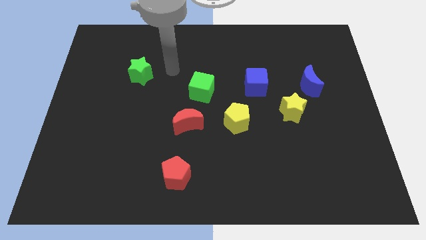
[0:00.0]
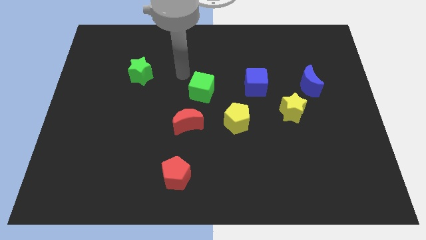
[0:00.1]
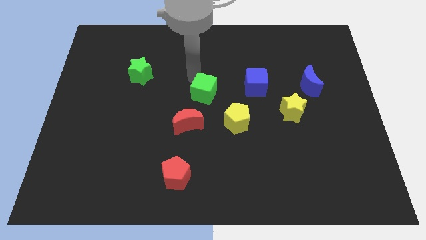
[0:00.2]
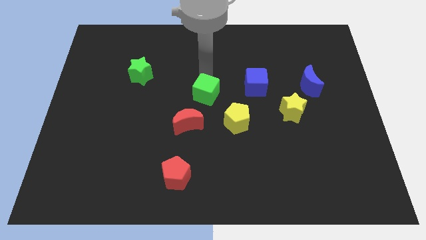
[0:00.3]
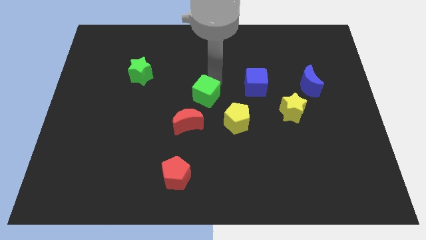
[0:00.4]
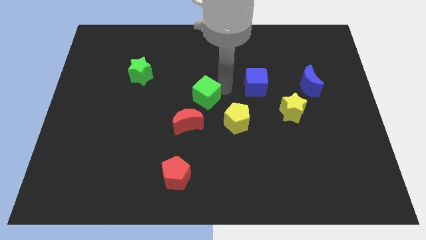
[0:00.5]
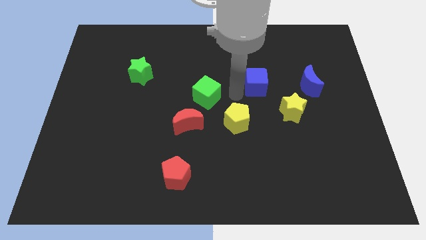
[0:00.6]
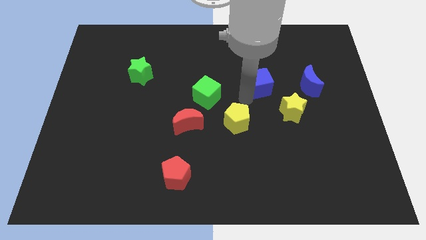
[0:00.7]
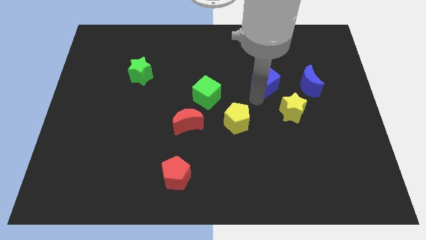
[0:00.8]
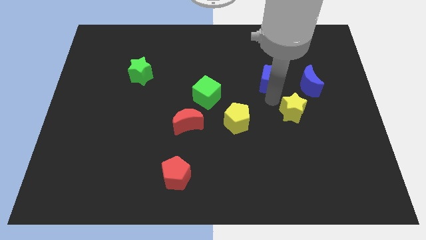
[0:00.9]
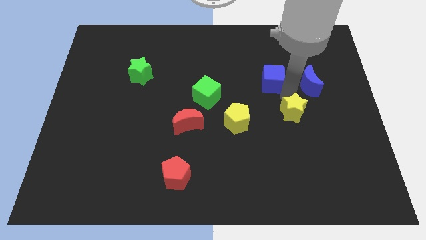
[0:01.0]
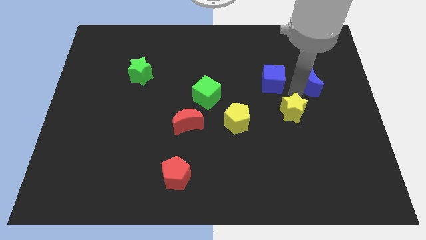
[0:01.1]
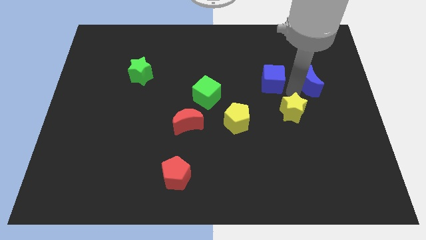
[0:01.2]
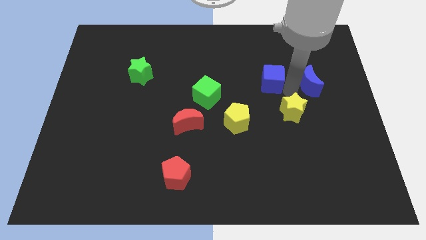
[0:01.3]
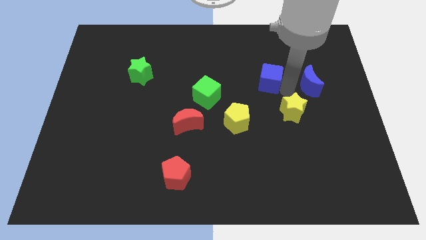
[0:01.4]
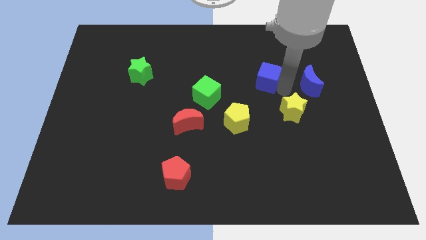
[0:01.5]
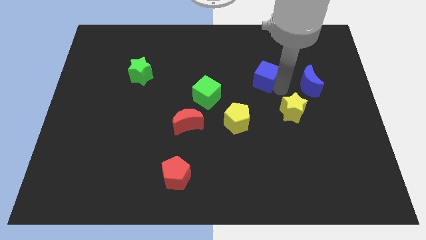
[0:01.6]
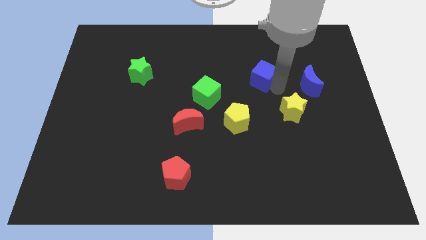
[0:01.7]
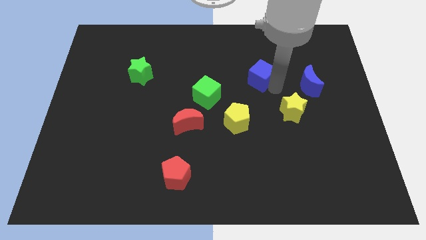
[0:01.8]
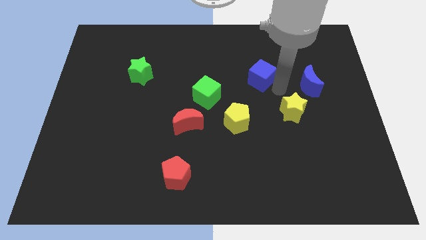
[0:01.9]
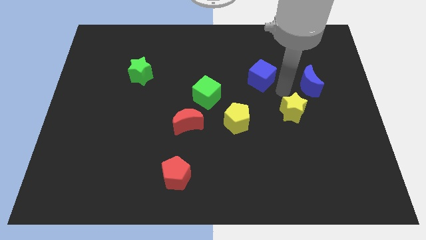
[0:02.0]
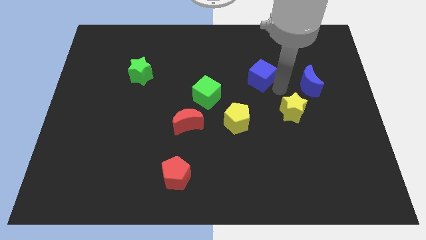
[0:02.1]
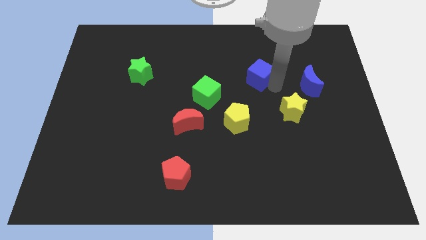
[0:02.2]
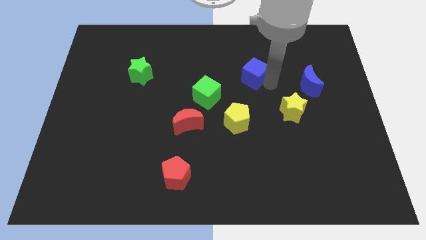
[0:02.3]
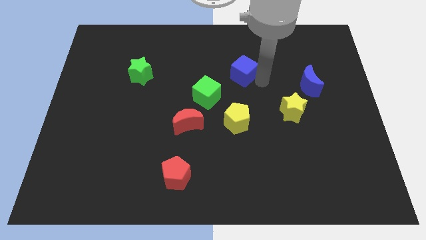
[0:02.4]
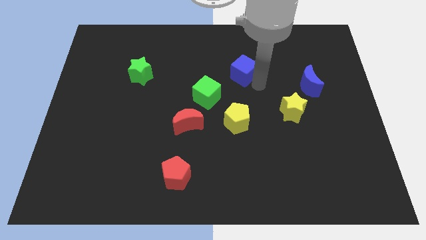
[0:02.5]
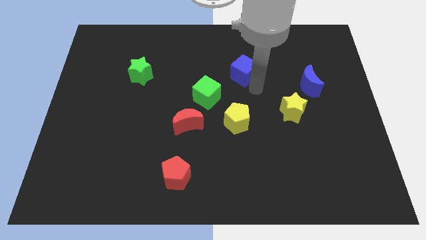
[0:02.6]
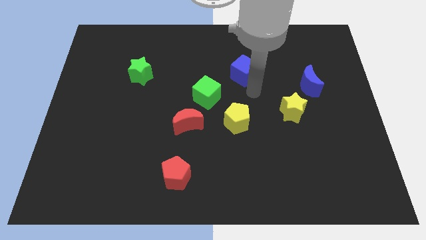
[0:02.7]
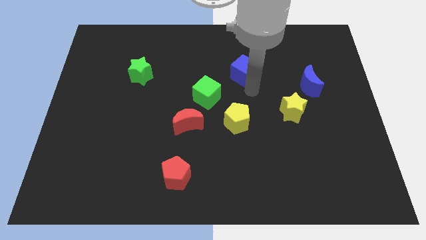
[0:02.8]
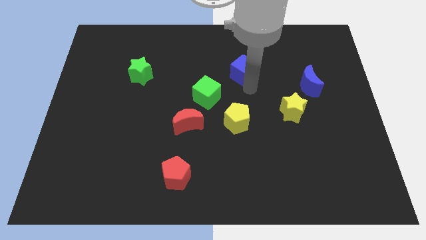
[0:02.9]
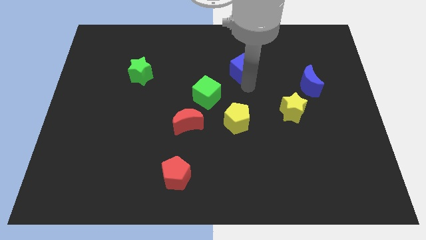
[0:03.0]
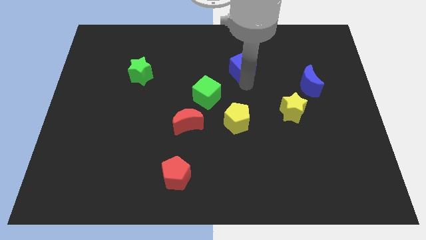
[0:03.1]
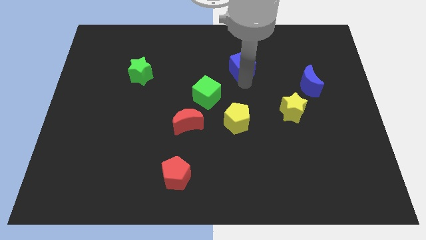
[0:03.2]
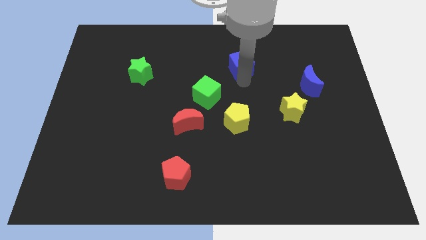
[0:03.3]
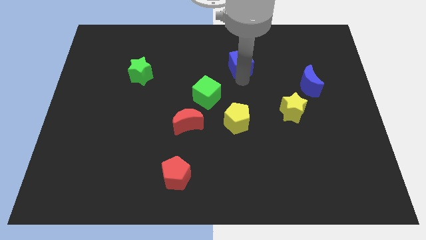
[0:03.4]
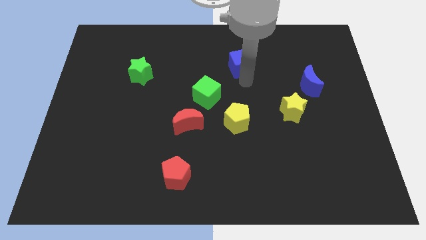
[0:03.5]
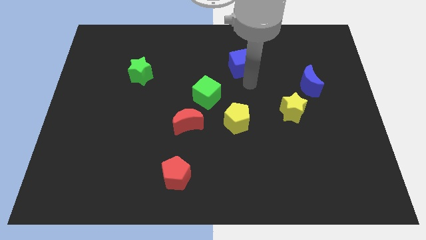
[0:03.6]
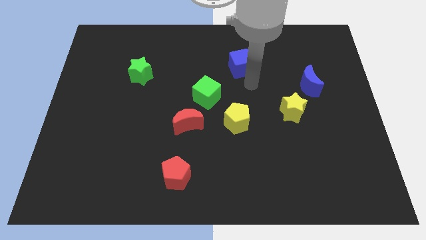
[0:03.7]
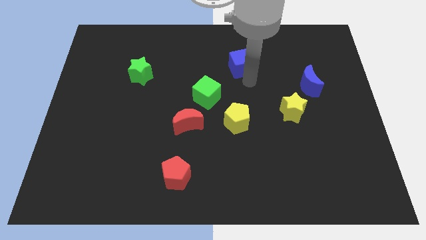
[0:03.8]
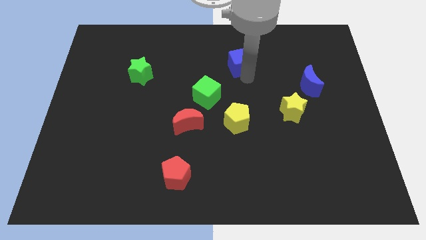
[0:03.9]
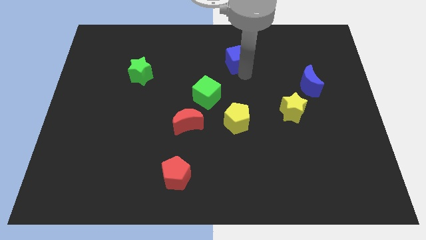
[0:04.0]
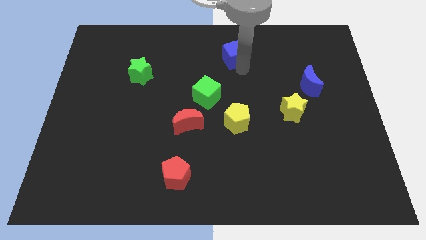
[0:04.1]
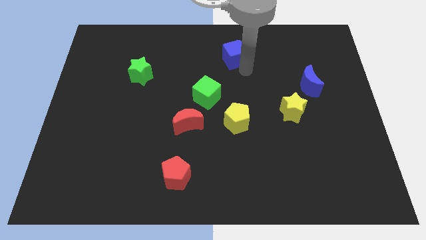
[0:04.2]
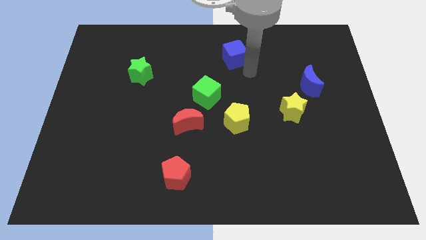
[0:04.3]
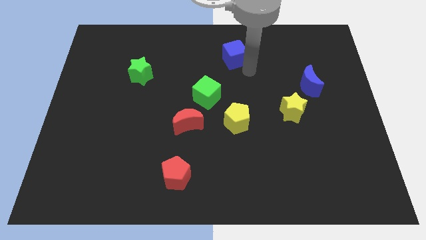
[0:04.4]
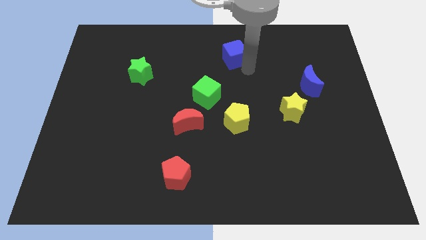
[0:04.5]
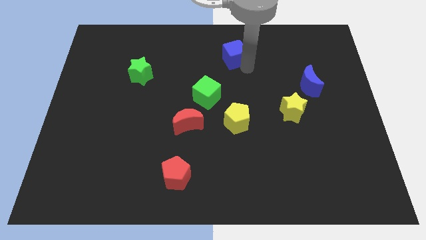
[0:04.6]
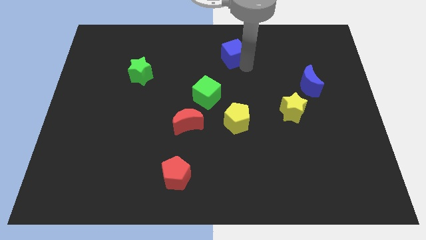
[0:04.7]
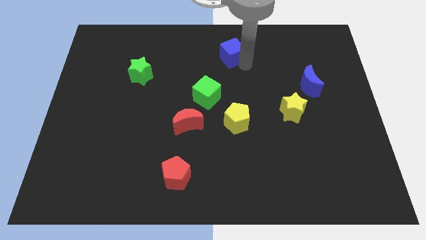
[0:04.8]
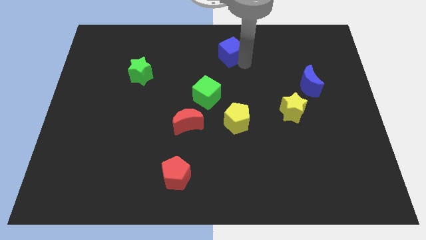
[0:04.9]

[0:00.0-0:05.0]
put the blue cube to the top

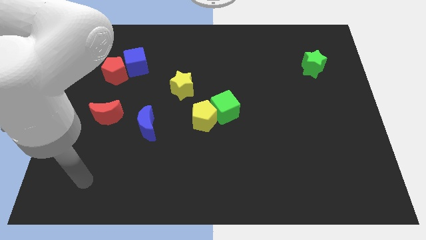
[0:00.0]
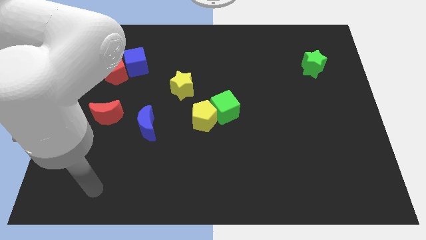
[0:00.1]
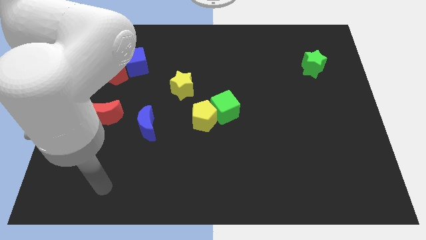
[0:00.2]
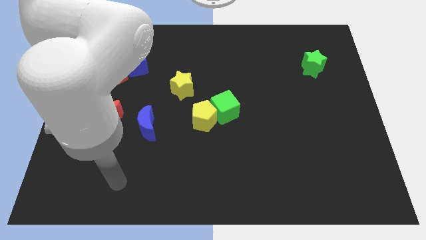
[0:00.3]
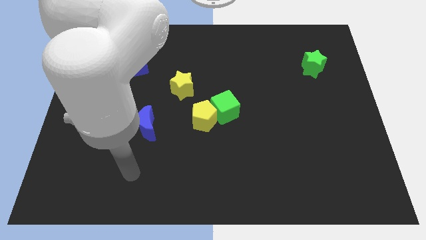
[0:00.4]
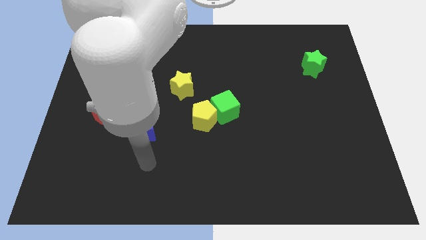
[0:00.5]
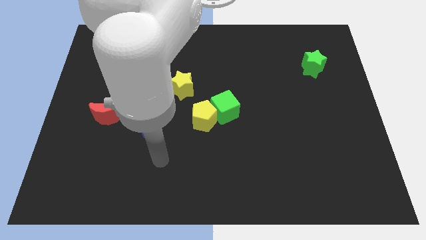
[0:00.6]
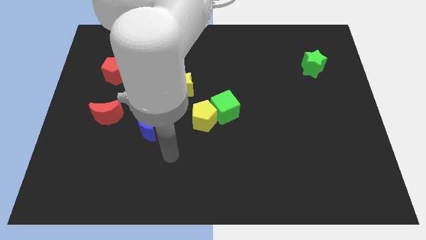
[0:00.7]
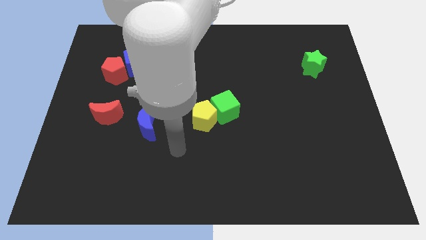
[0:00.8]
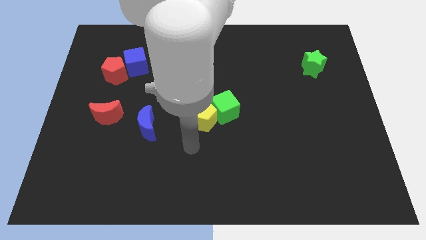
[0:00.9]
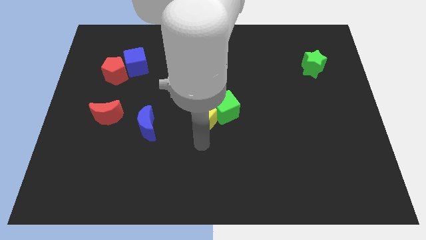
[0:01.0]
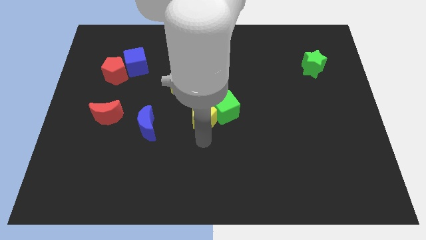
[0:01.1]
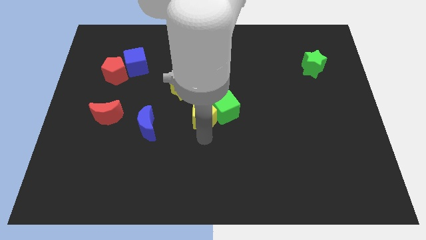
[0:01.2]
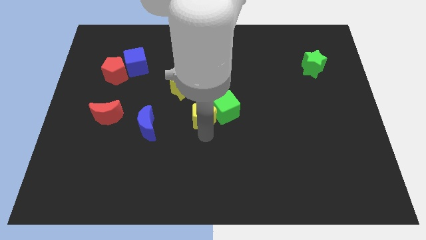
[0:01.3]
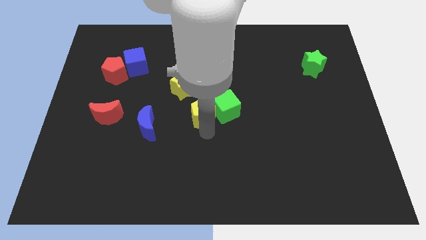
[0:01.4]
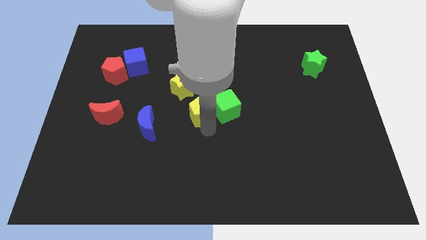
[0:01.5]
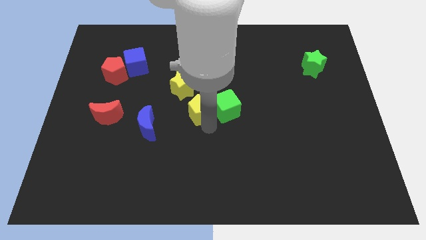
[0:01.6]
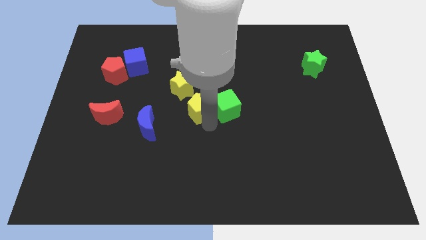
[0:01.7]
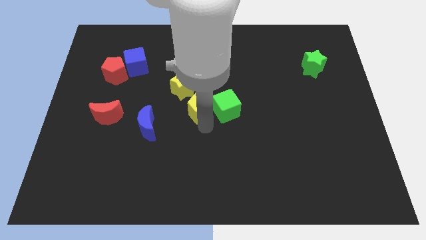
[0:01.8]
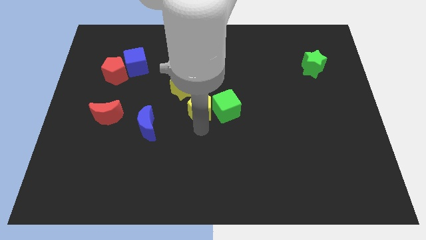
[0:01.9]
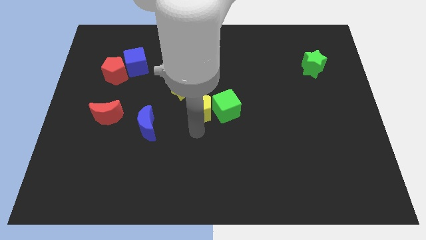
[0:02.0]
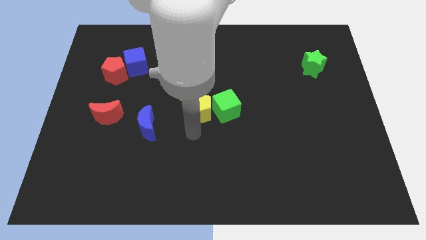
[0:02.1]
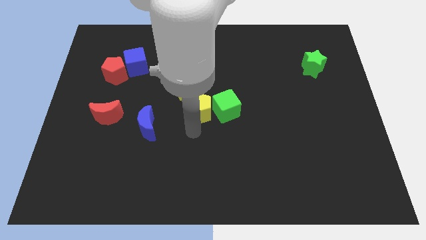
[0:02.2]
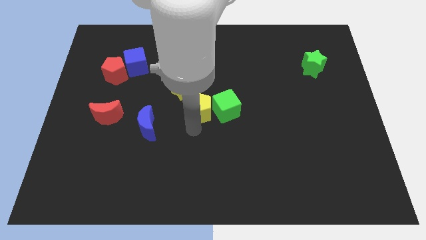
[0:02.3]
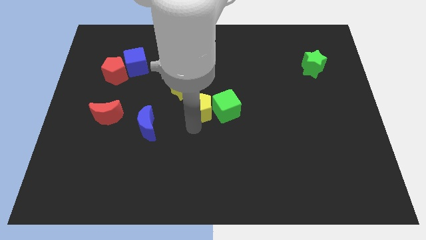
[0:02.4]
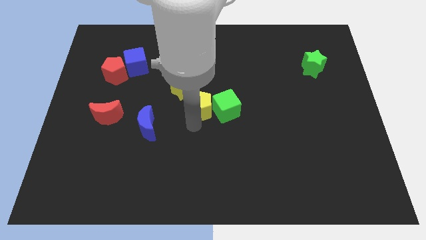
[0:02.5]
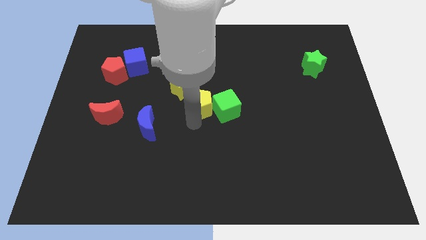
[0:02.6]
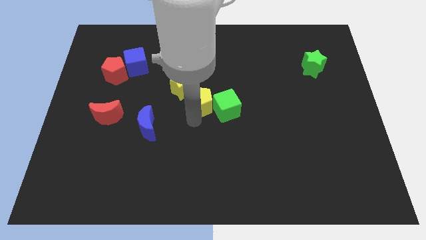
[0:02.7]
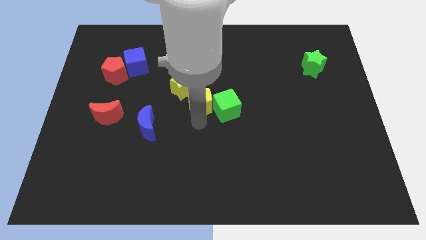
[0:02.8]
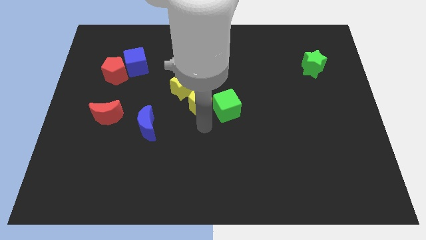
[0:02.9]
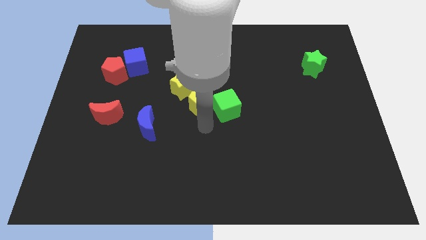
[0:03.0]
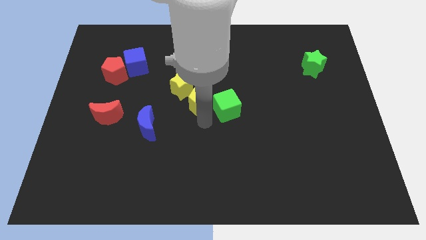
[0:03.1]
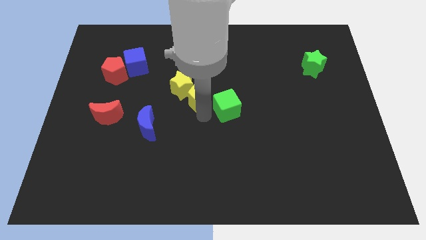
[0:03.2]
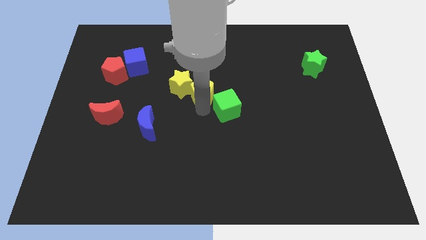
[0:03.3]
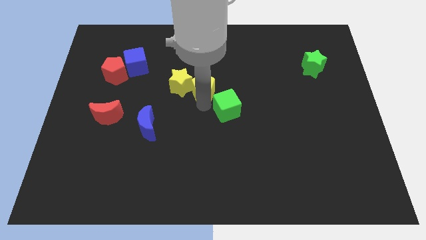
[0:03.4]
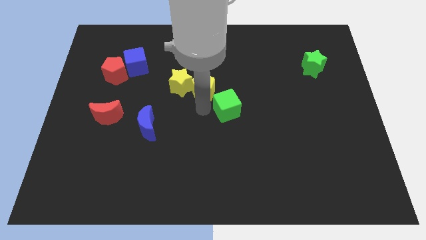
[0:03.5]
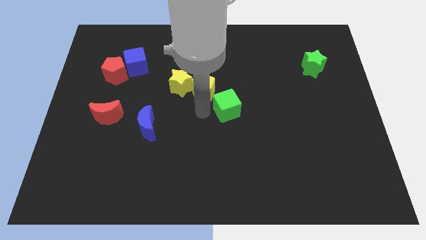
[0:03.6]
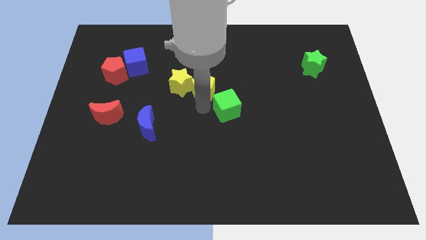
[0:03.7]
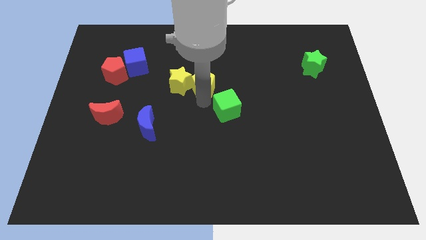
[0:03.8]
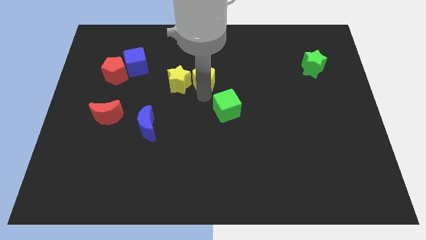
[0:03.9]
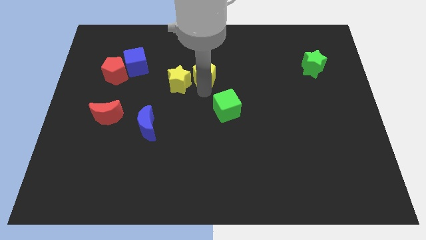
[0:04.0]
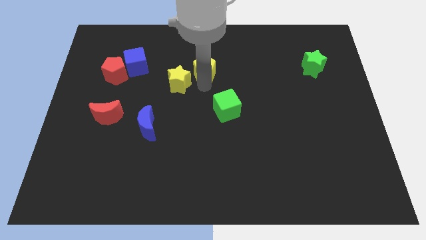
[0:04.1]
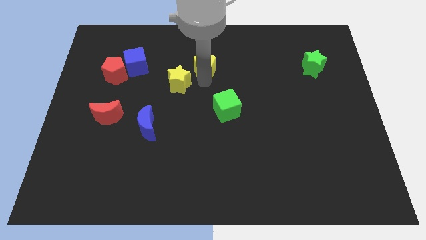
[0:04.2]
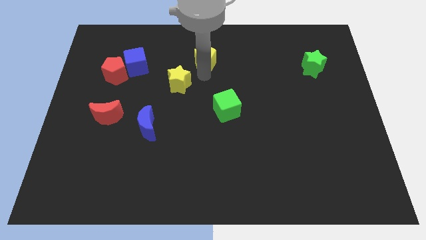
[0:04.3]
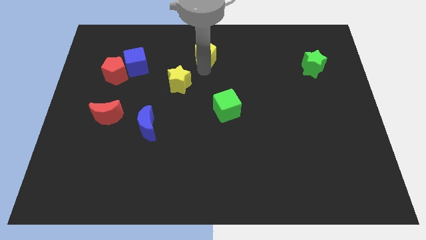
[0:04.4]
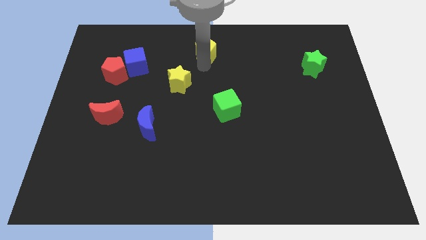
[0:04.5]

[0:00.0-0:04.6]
push the yellow pentagon to the top
